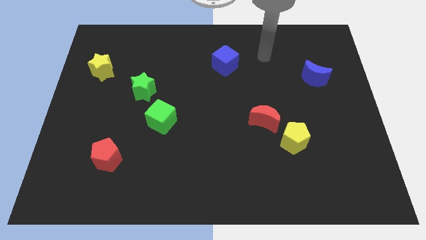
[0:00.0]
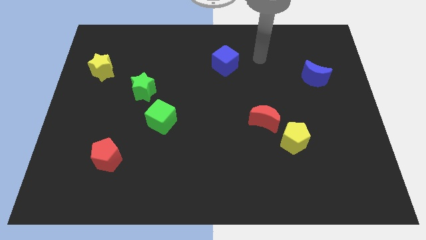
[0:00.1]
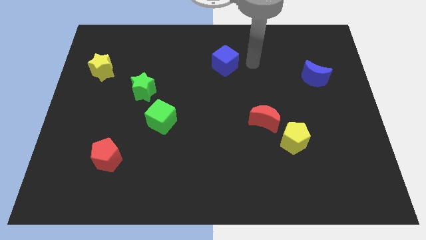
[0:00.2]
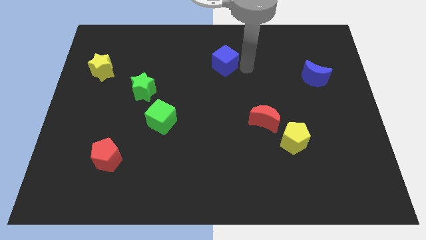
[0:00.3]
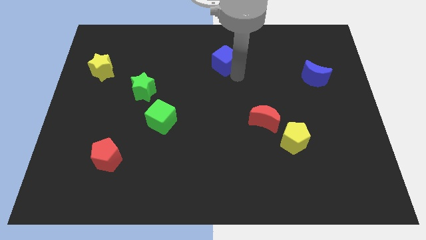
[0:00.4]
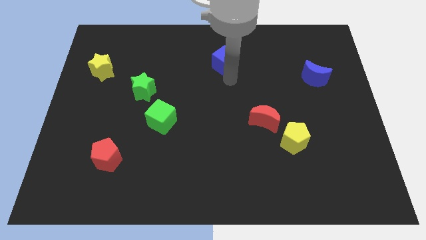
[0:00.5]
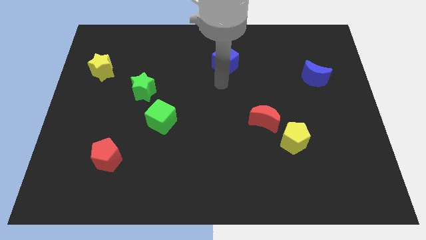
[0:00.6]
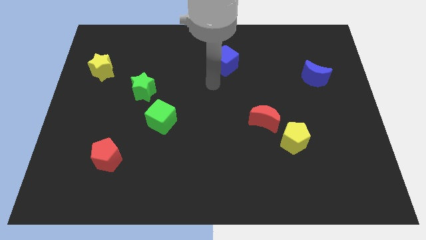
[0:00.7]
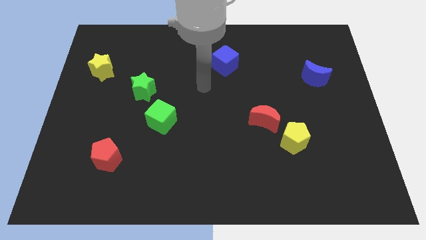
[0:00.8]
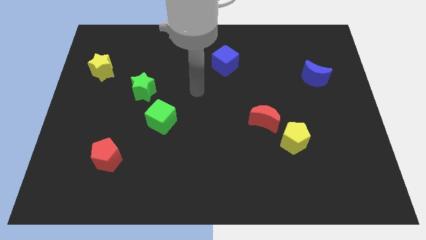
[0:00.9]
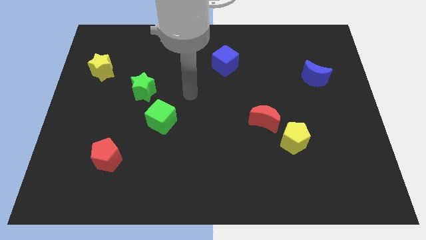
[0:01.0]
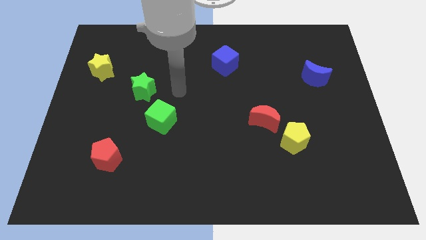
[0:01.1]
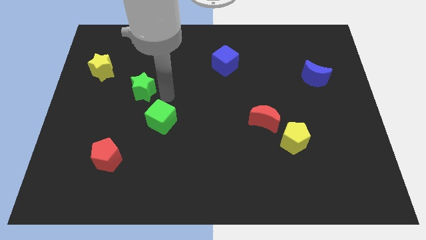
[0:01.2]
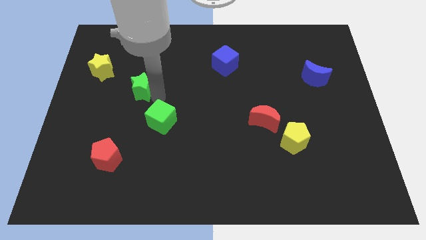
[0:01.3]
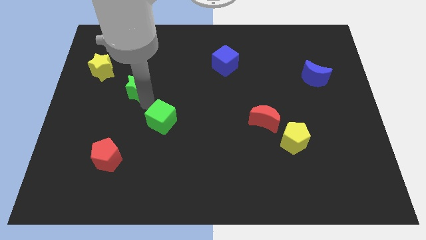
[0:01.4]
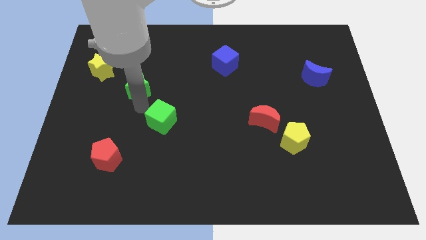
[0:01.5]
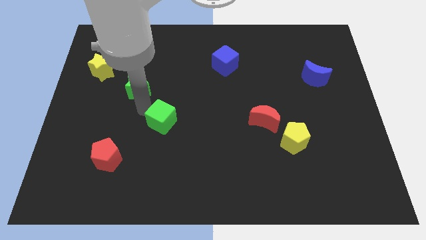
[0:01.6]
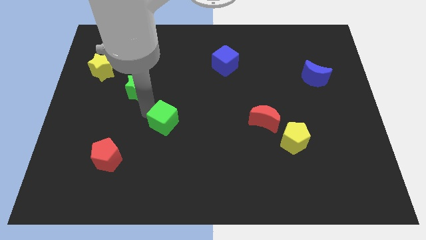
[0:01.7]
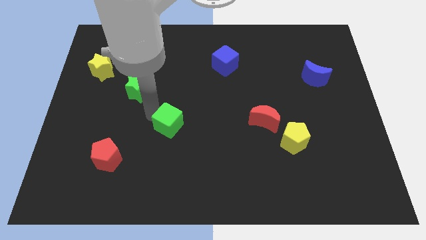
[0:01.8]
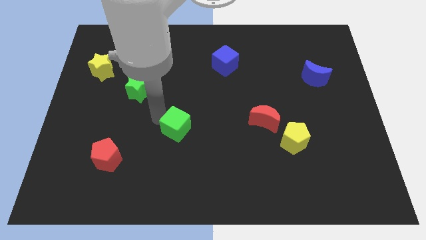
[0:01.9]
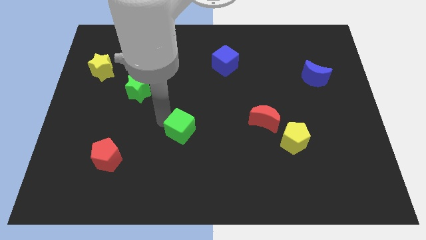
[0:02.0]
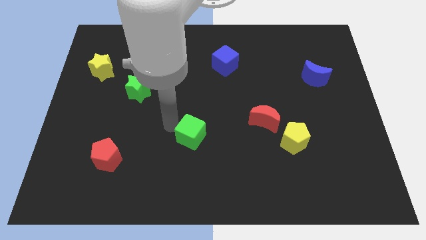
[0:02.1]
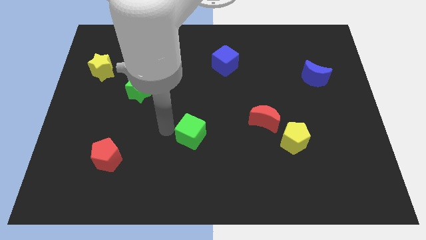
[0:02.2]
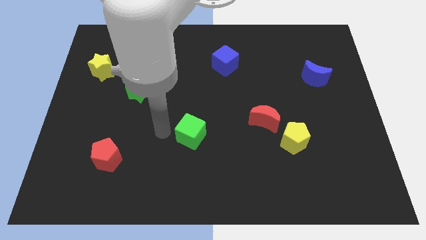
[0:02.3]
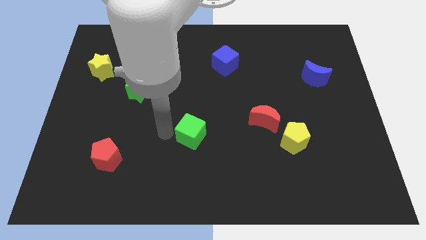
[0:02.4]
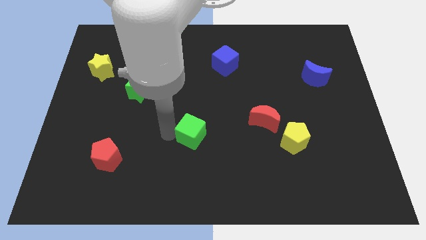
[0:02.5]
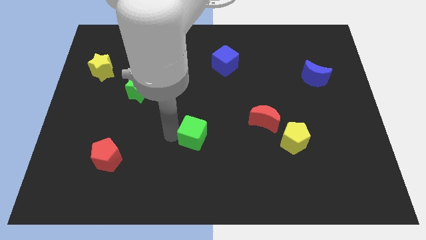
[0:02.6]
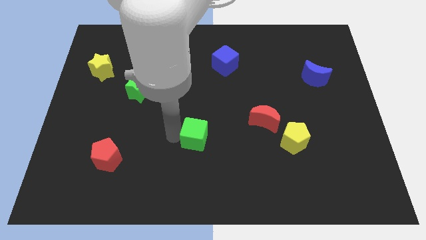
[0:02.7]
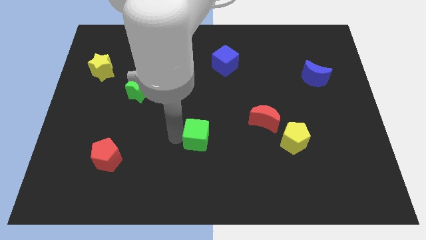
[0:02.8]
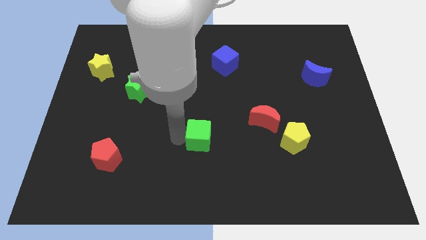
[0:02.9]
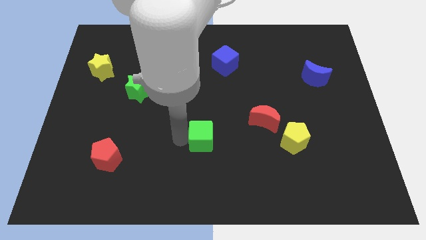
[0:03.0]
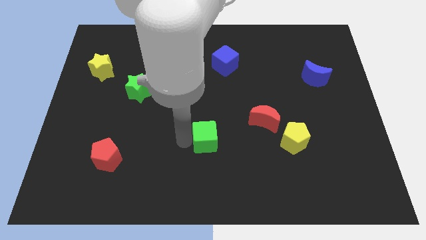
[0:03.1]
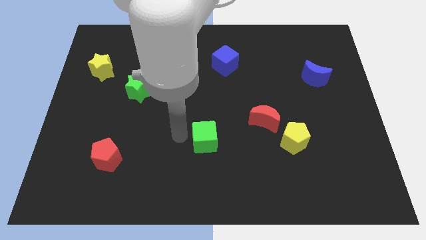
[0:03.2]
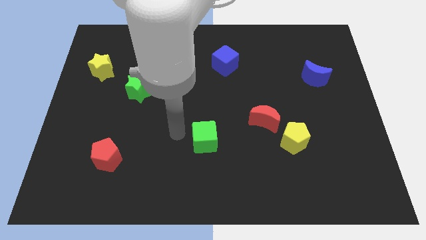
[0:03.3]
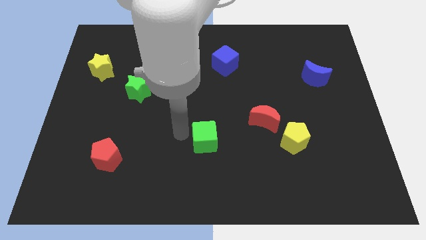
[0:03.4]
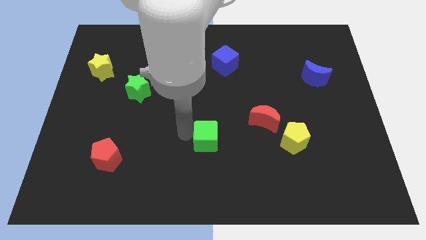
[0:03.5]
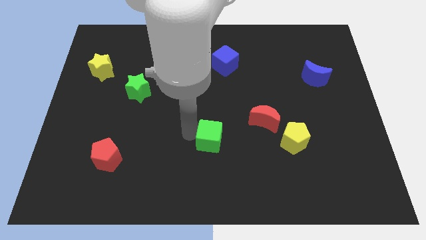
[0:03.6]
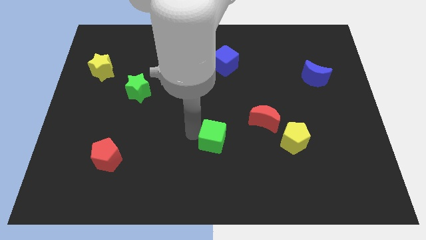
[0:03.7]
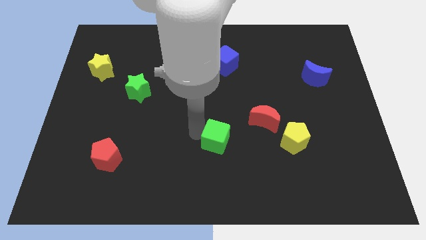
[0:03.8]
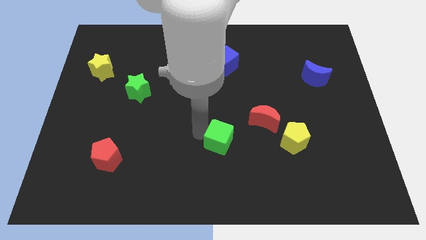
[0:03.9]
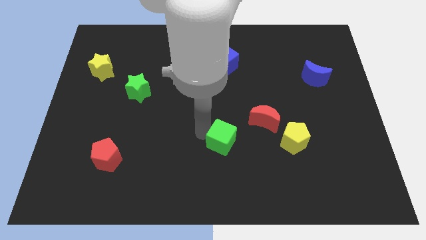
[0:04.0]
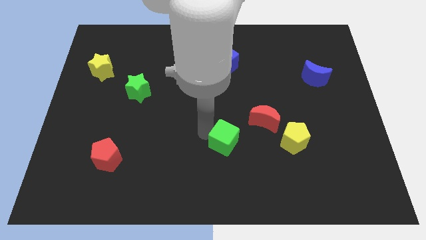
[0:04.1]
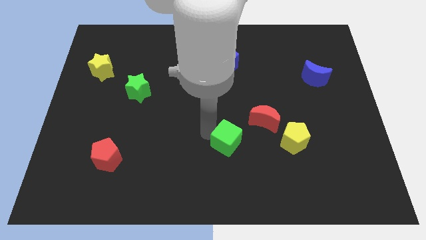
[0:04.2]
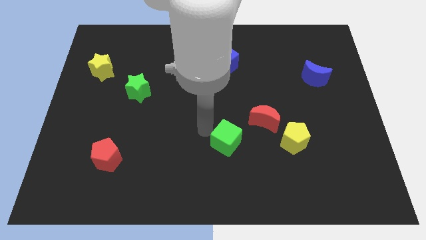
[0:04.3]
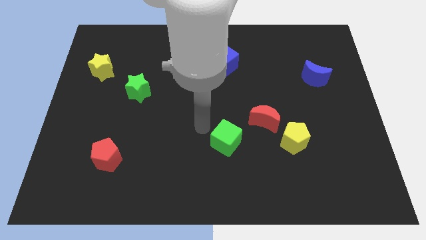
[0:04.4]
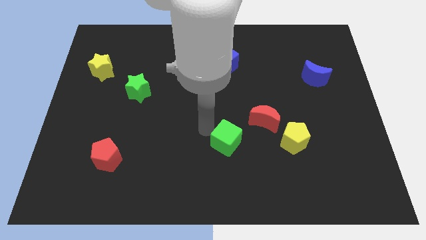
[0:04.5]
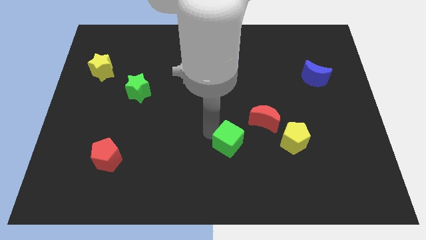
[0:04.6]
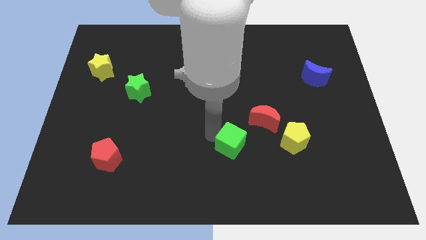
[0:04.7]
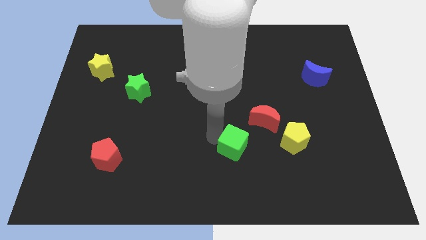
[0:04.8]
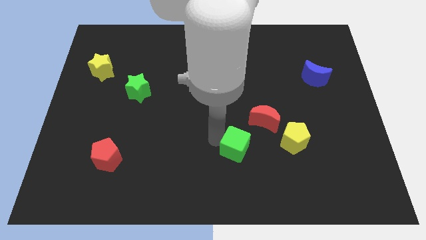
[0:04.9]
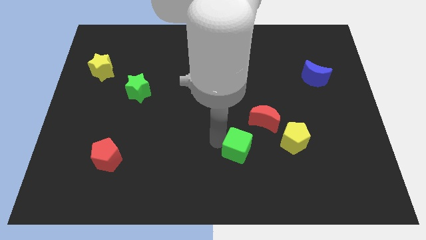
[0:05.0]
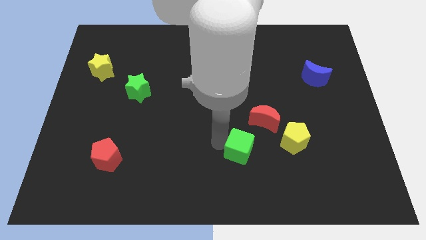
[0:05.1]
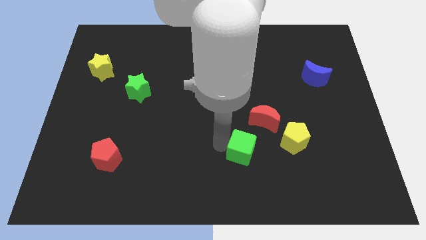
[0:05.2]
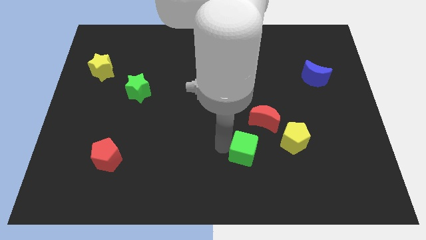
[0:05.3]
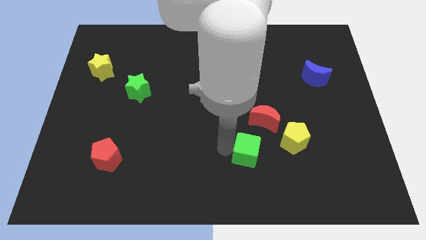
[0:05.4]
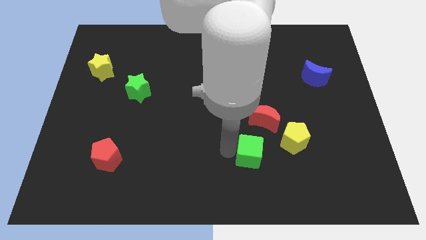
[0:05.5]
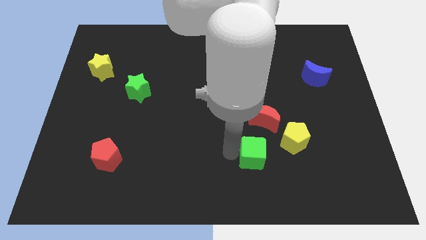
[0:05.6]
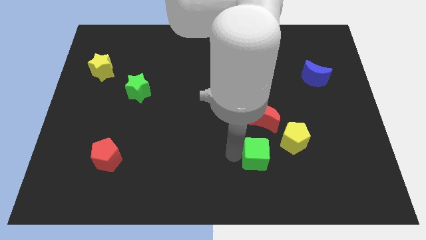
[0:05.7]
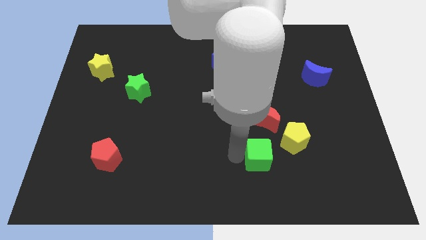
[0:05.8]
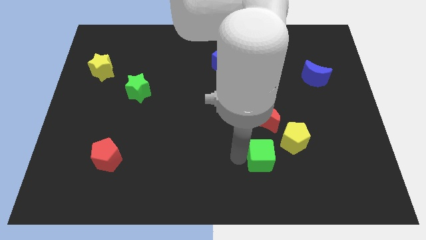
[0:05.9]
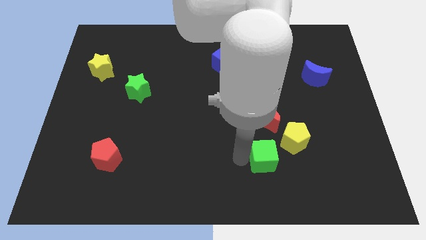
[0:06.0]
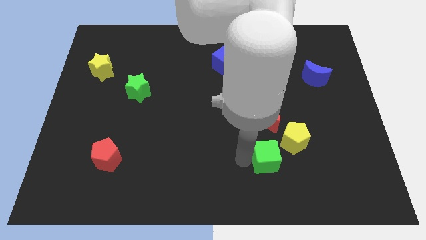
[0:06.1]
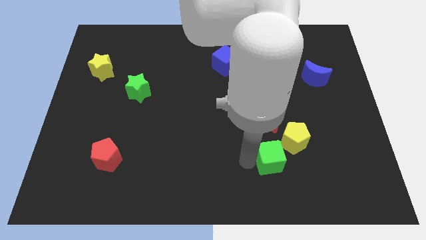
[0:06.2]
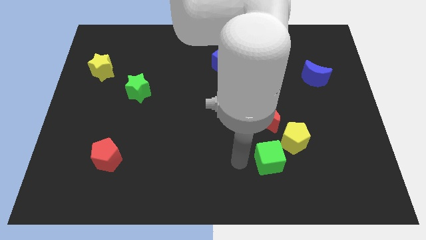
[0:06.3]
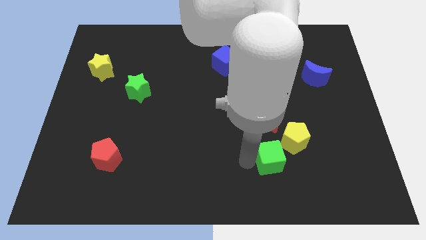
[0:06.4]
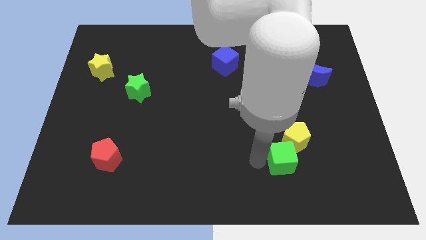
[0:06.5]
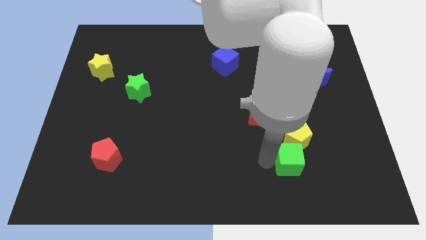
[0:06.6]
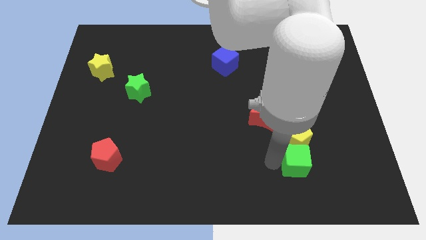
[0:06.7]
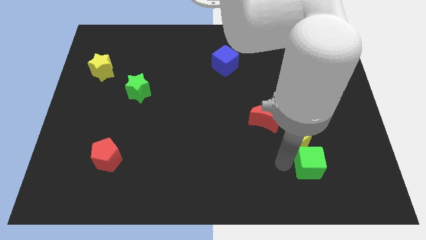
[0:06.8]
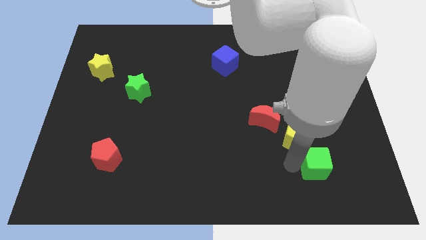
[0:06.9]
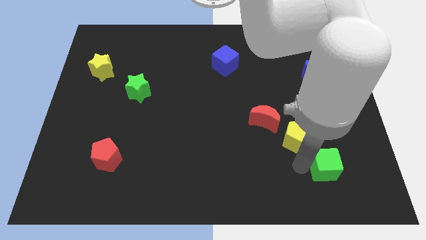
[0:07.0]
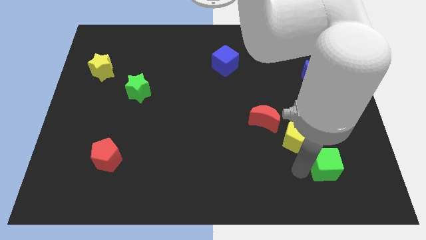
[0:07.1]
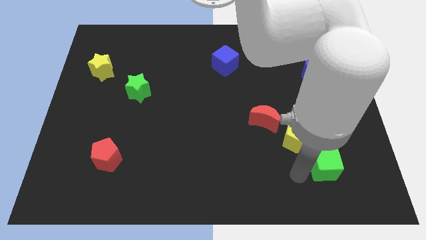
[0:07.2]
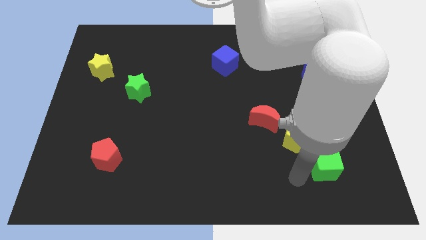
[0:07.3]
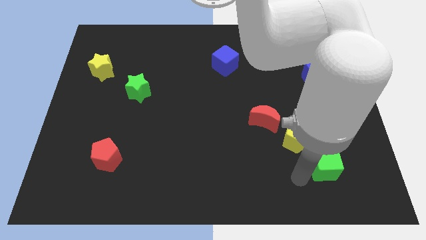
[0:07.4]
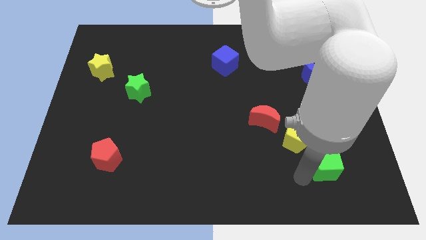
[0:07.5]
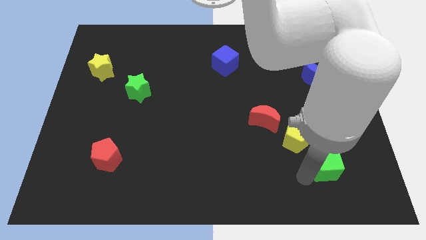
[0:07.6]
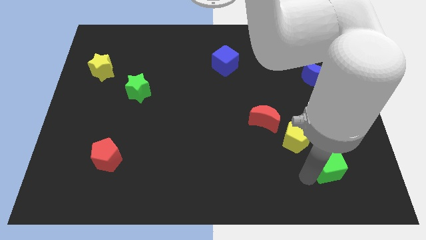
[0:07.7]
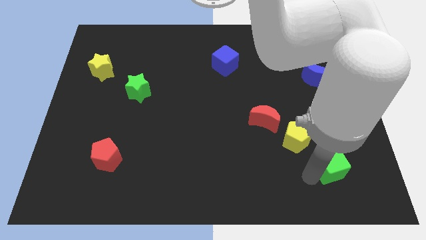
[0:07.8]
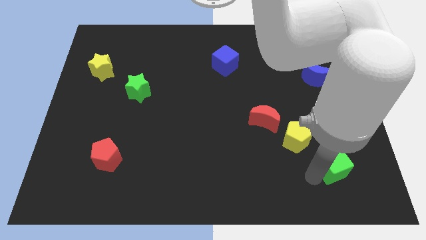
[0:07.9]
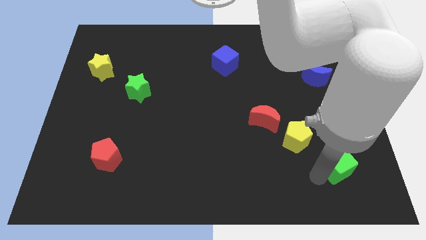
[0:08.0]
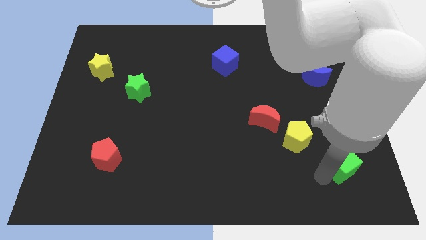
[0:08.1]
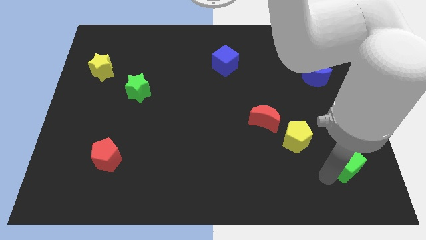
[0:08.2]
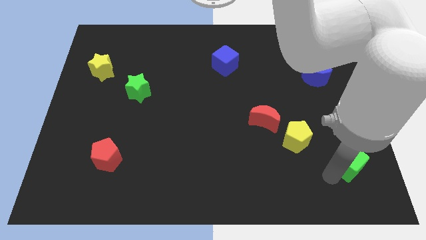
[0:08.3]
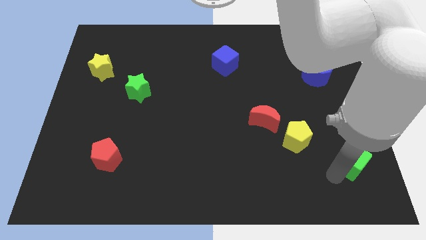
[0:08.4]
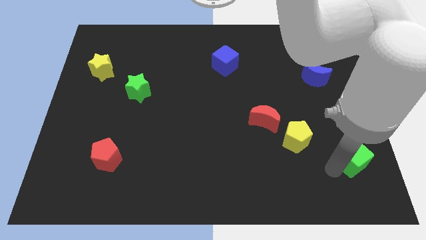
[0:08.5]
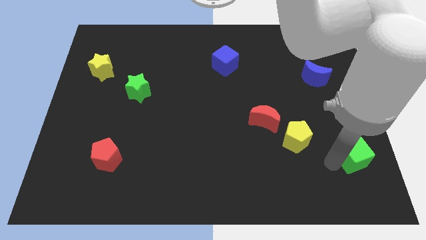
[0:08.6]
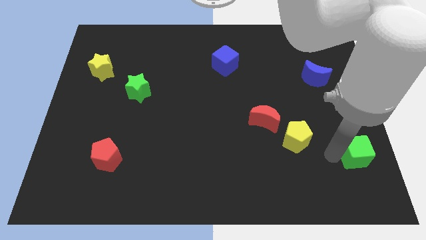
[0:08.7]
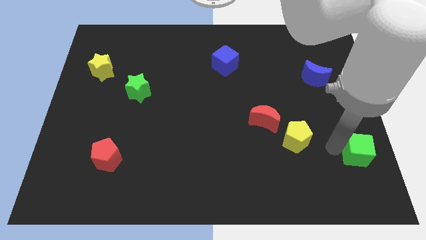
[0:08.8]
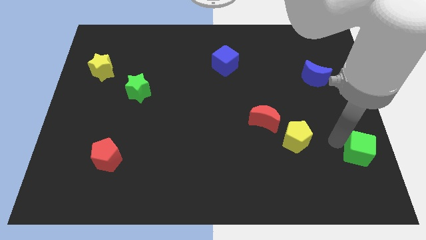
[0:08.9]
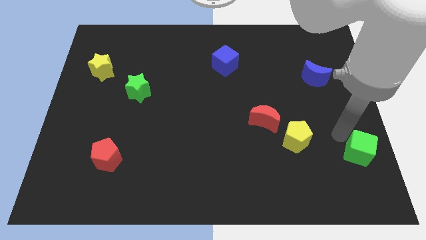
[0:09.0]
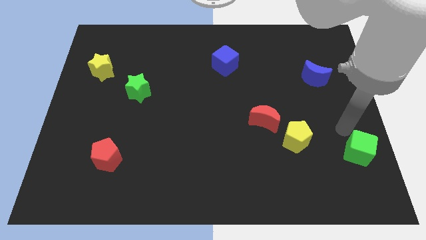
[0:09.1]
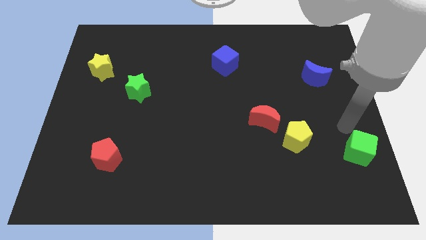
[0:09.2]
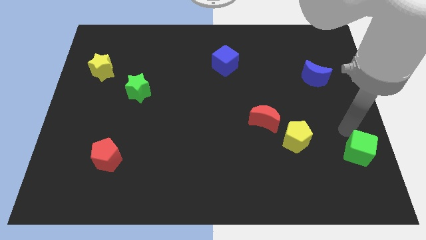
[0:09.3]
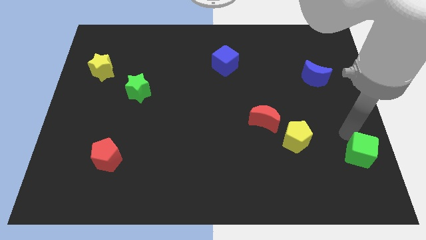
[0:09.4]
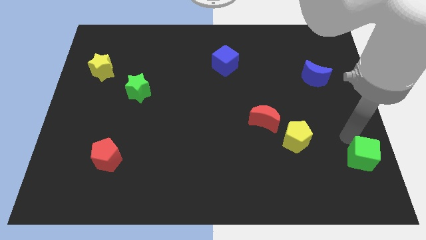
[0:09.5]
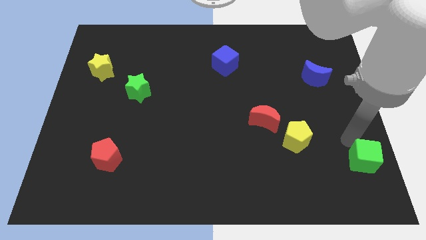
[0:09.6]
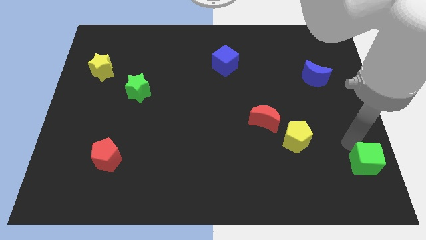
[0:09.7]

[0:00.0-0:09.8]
slide the green cube to the bottom right corner
